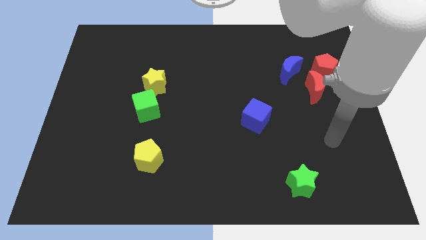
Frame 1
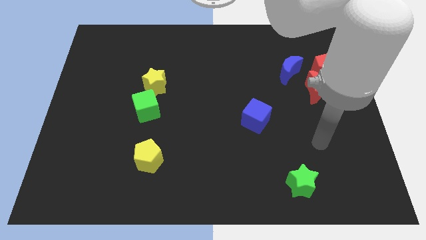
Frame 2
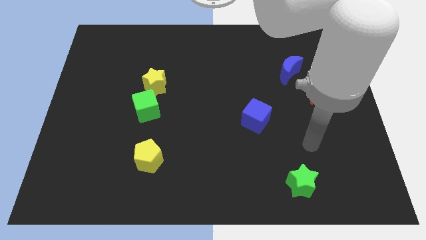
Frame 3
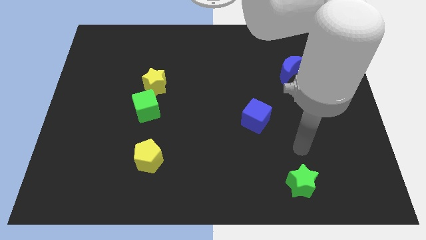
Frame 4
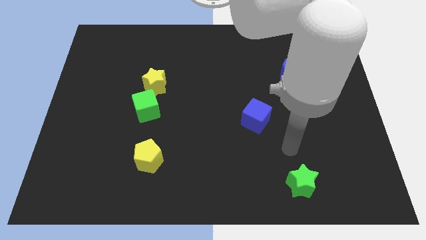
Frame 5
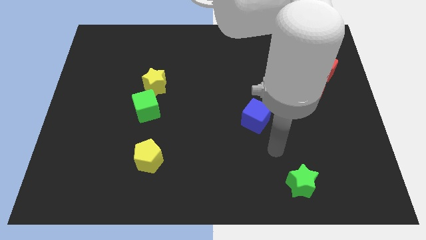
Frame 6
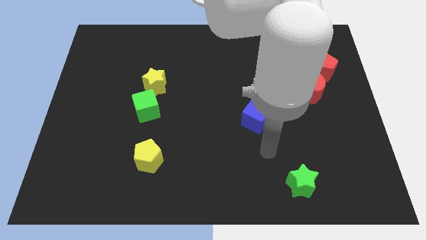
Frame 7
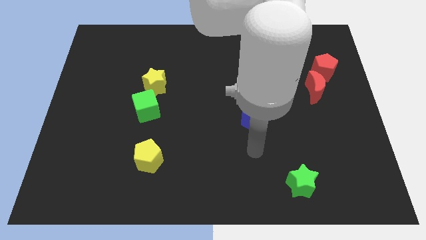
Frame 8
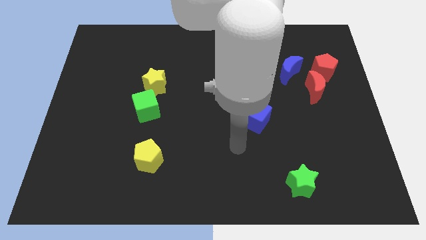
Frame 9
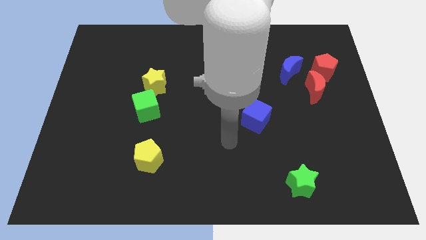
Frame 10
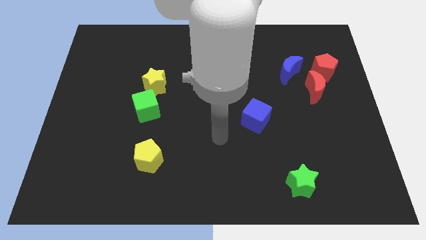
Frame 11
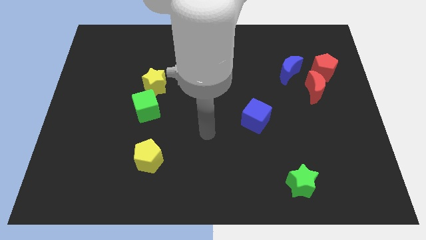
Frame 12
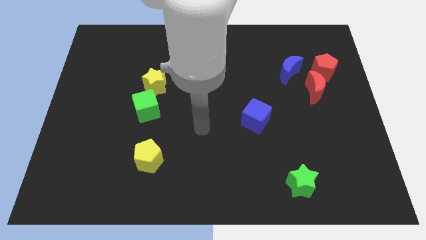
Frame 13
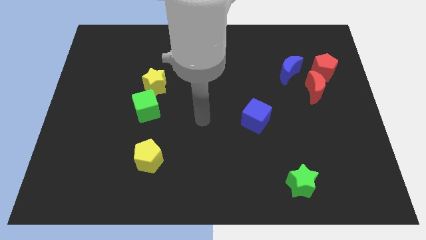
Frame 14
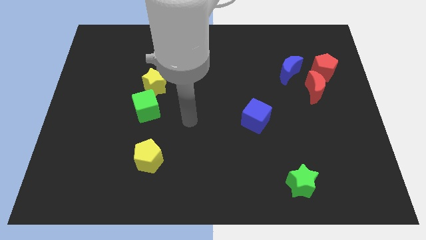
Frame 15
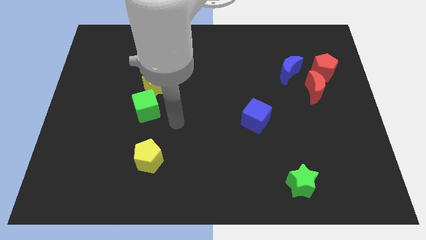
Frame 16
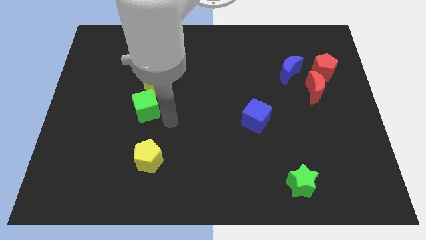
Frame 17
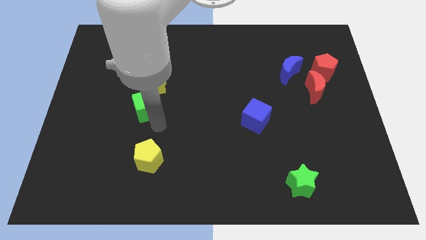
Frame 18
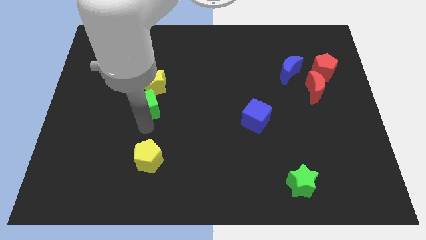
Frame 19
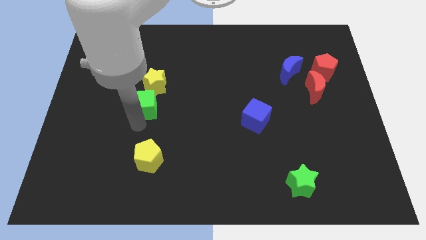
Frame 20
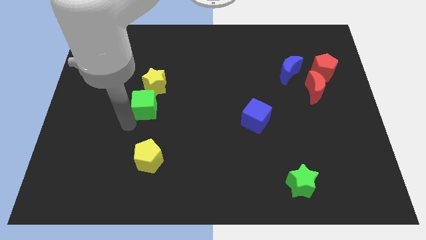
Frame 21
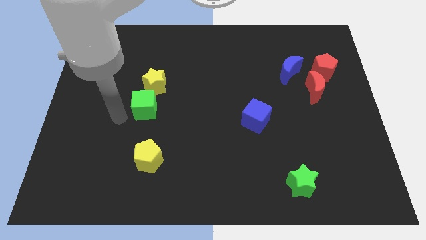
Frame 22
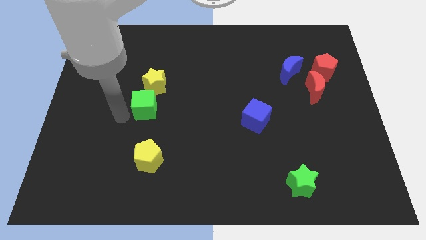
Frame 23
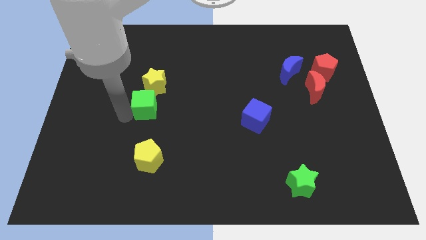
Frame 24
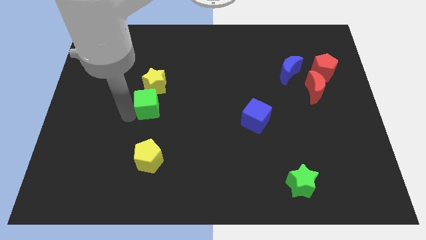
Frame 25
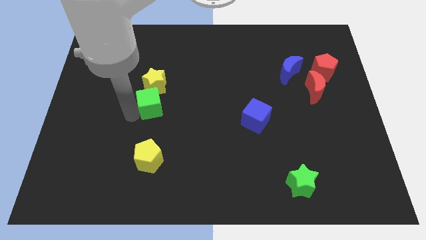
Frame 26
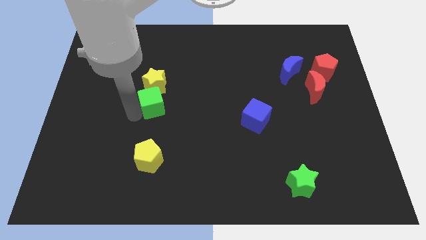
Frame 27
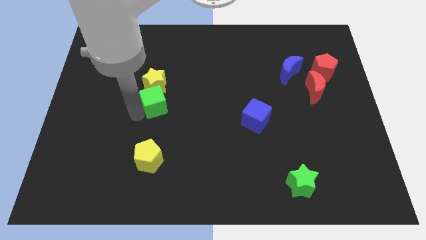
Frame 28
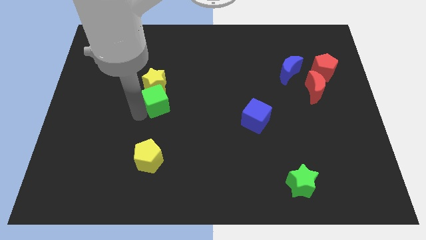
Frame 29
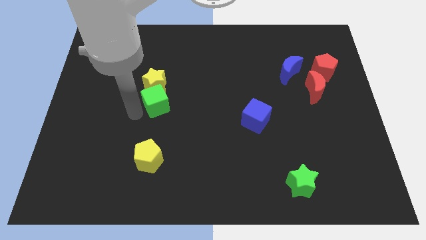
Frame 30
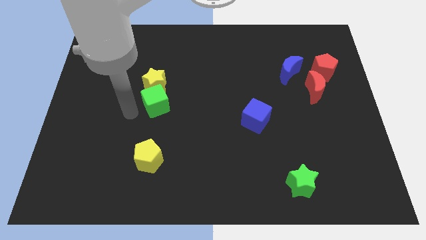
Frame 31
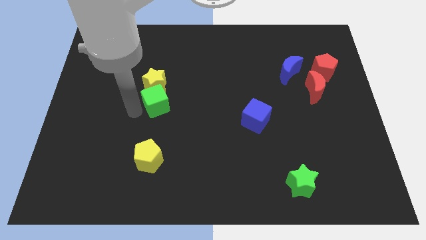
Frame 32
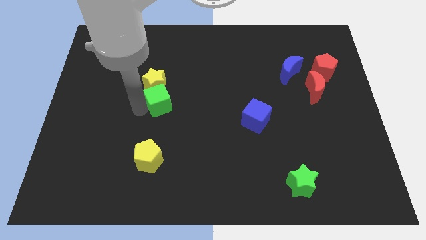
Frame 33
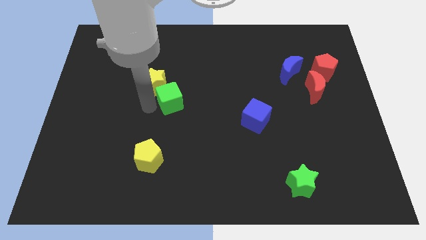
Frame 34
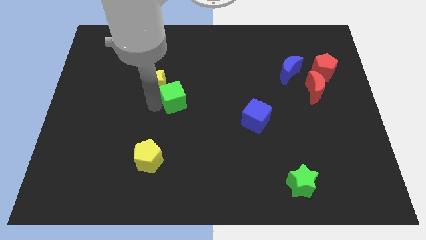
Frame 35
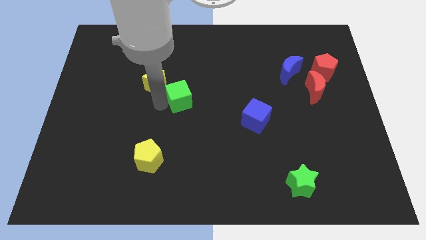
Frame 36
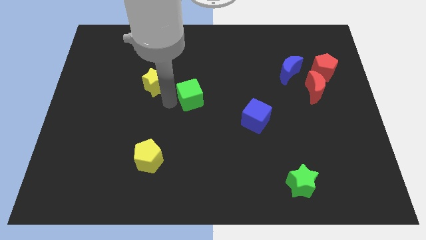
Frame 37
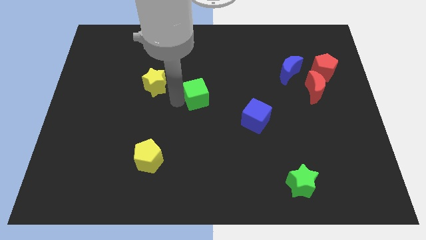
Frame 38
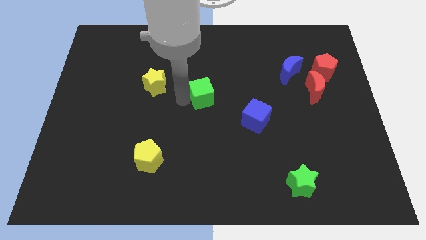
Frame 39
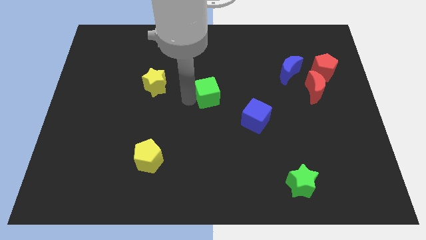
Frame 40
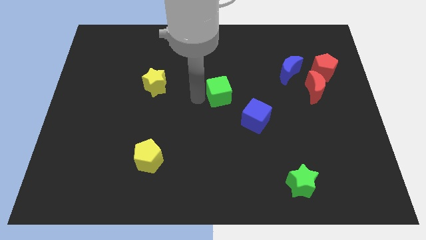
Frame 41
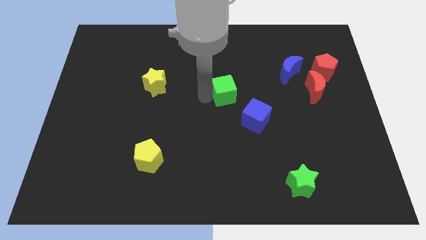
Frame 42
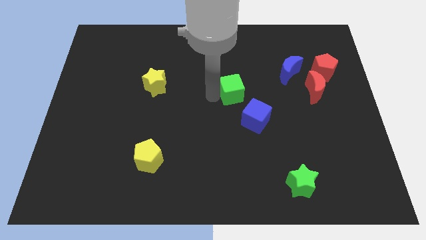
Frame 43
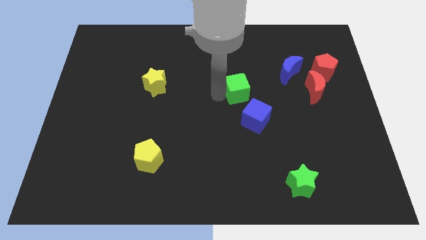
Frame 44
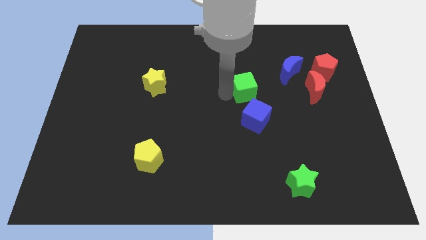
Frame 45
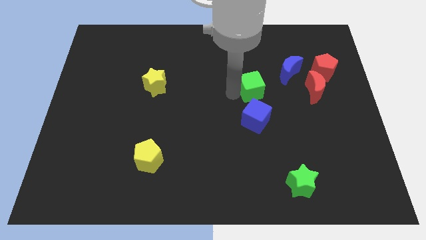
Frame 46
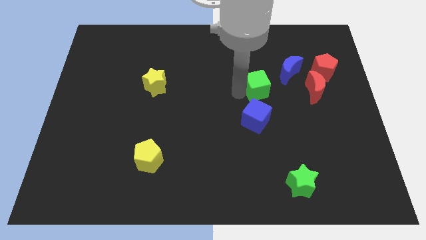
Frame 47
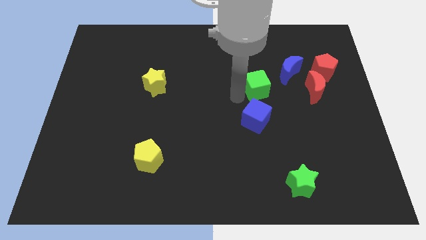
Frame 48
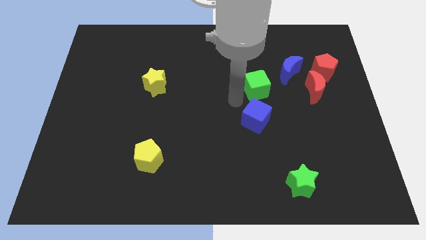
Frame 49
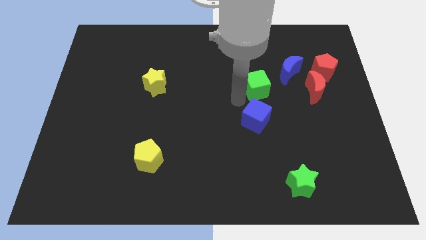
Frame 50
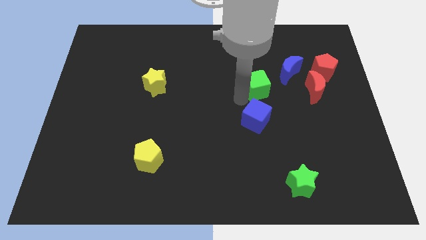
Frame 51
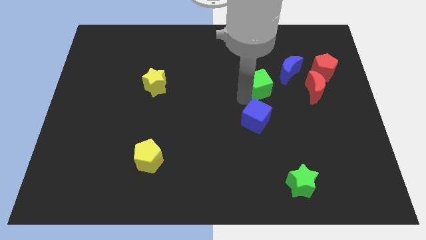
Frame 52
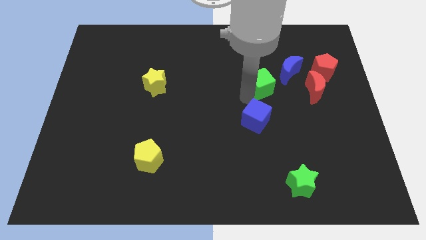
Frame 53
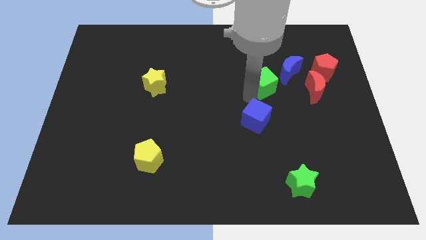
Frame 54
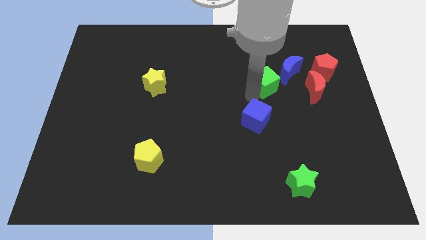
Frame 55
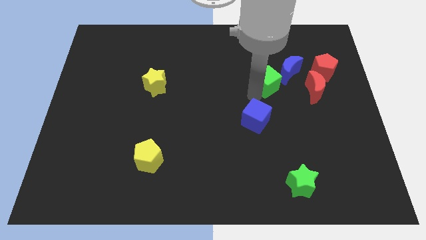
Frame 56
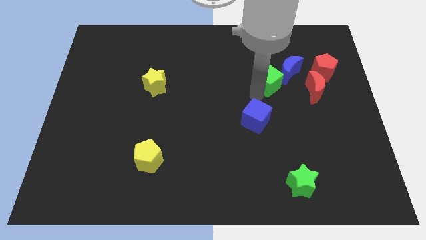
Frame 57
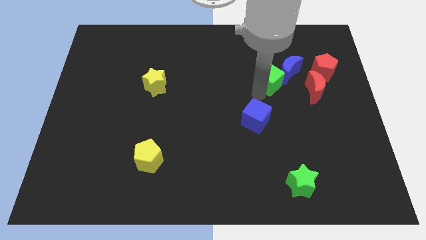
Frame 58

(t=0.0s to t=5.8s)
put the green cube close to the blue moon

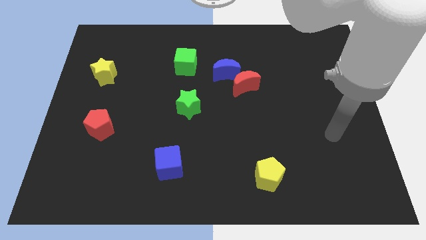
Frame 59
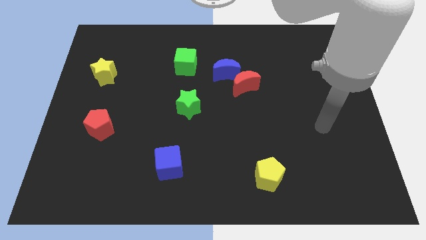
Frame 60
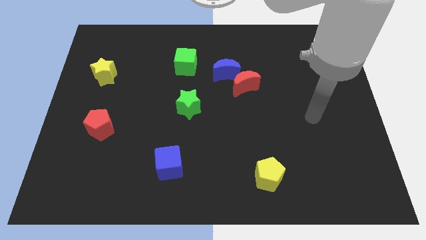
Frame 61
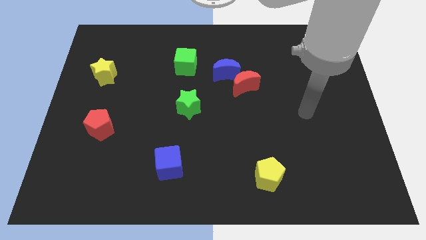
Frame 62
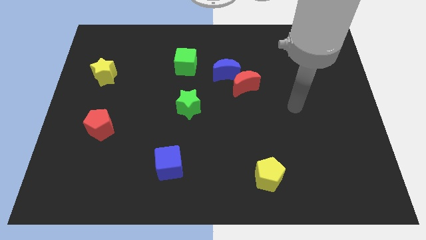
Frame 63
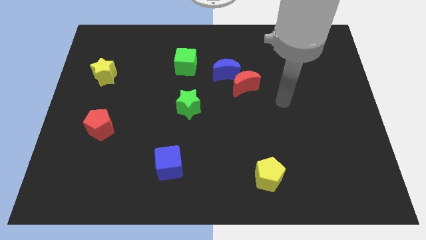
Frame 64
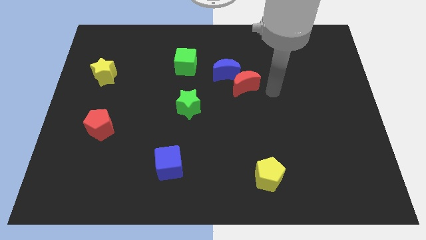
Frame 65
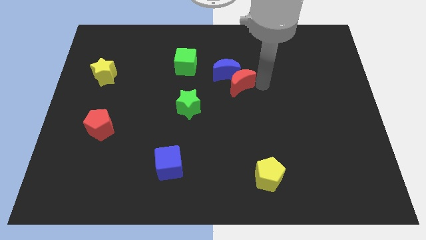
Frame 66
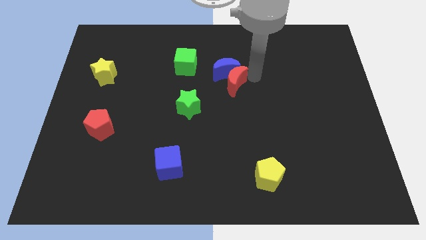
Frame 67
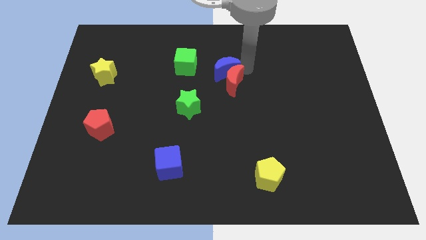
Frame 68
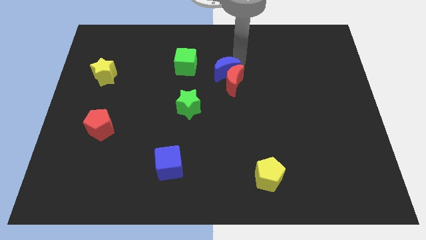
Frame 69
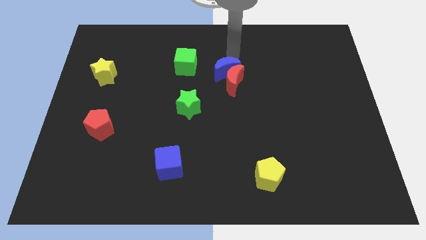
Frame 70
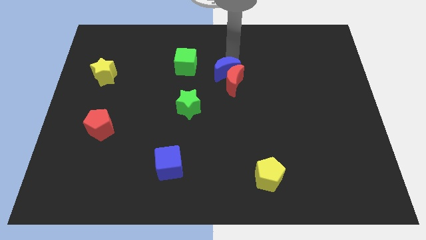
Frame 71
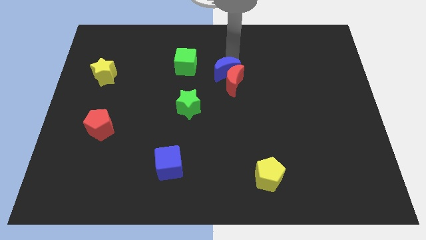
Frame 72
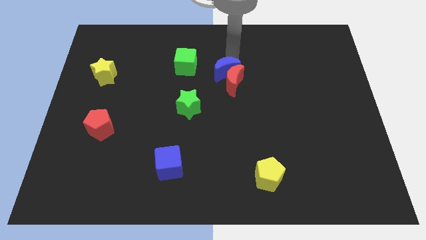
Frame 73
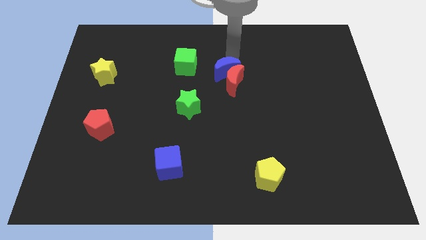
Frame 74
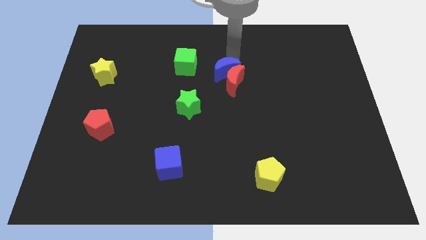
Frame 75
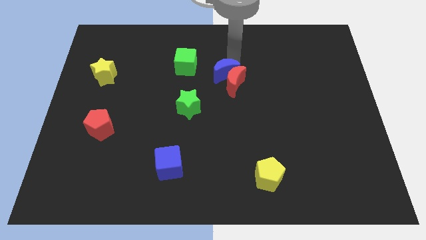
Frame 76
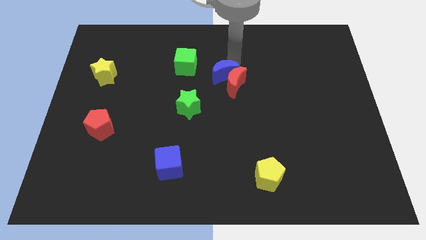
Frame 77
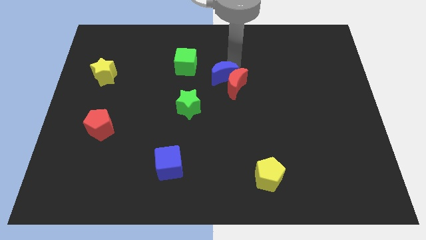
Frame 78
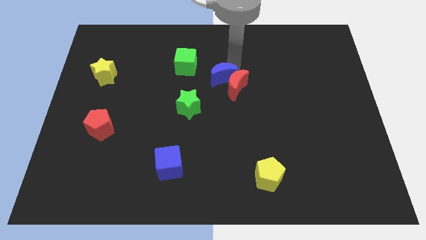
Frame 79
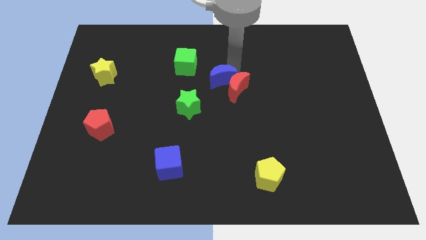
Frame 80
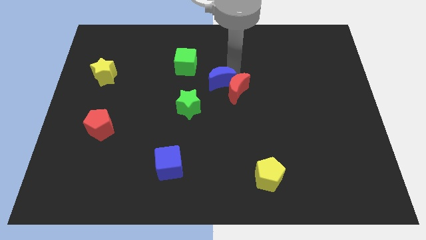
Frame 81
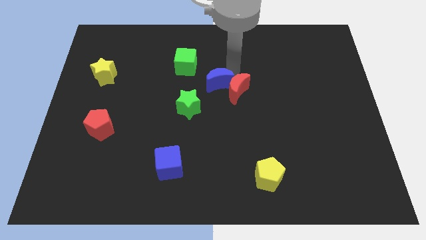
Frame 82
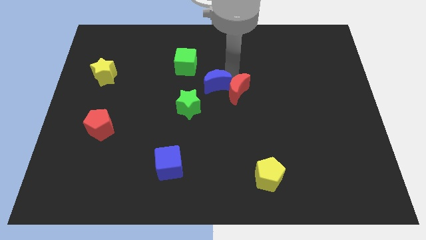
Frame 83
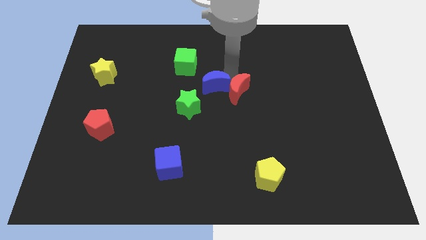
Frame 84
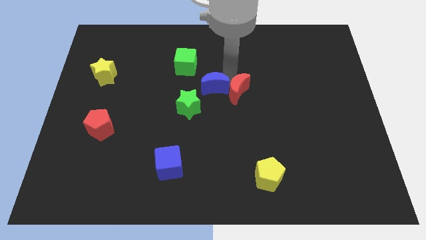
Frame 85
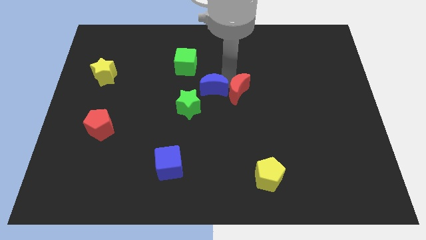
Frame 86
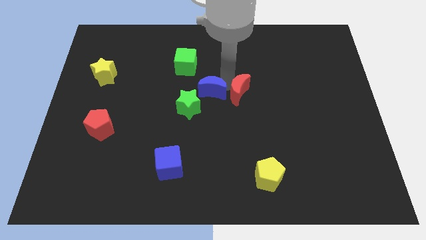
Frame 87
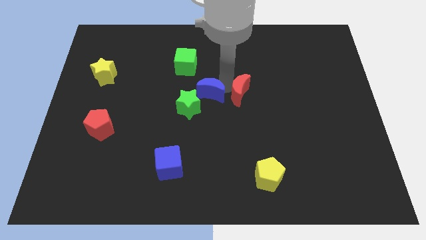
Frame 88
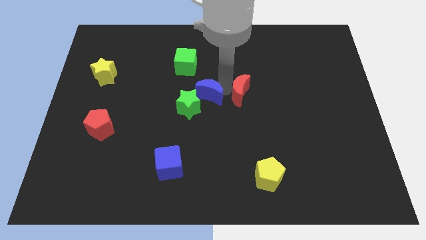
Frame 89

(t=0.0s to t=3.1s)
push the blue moon towards the green star
